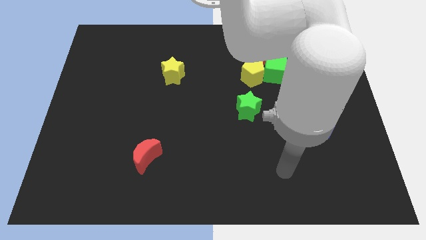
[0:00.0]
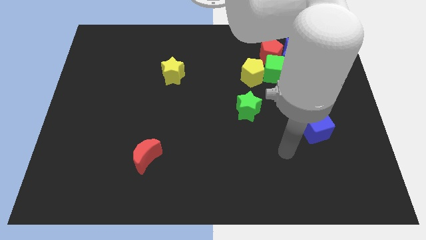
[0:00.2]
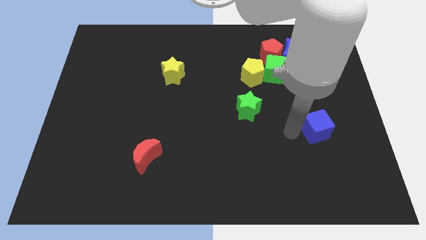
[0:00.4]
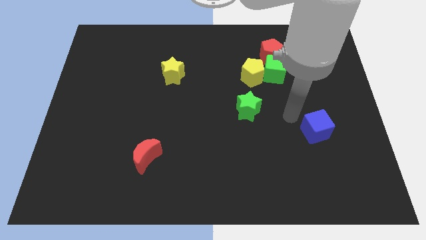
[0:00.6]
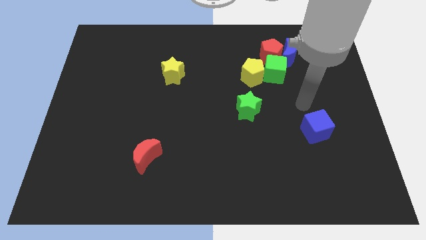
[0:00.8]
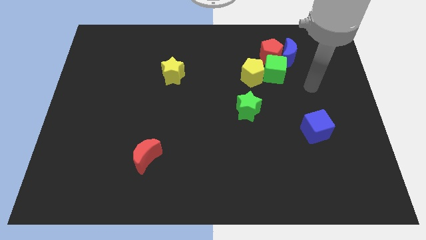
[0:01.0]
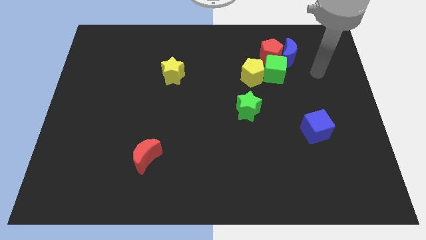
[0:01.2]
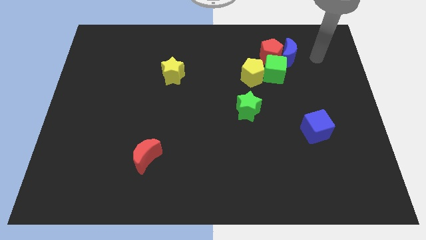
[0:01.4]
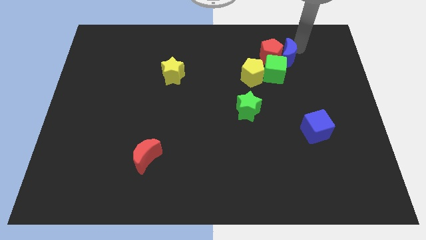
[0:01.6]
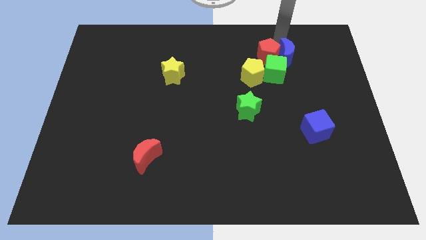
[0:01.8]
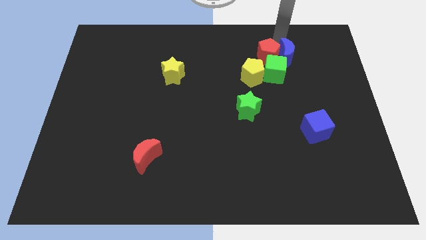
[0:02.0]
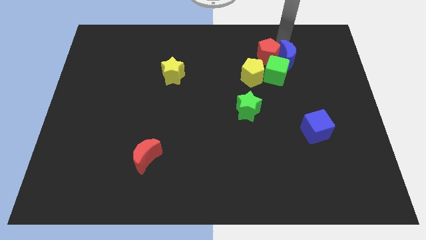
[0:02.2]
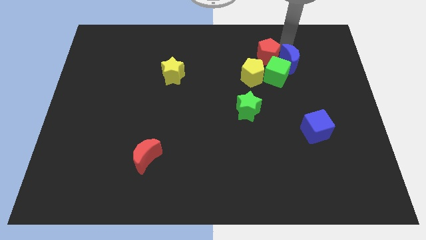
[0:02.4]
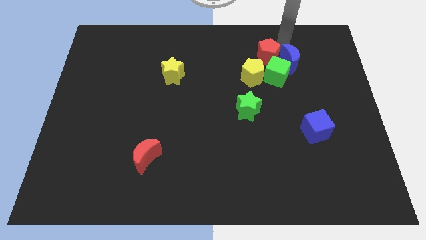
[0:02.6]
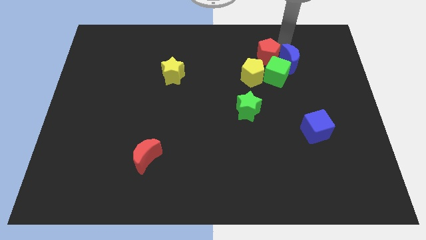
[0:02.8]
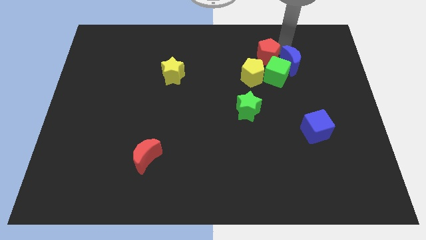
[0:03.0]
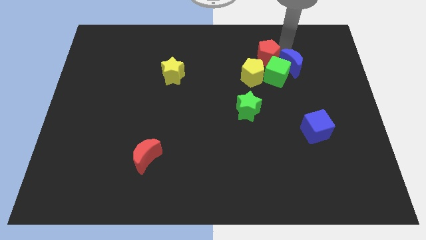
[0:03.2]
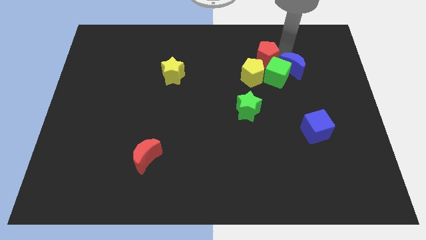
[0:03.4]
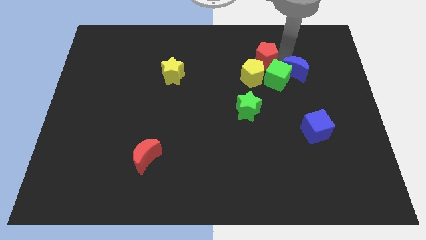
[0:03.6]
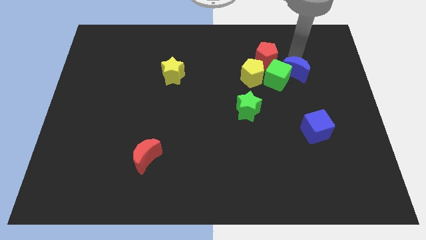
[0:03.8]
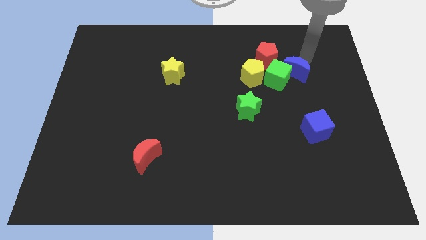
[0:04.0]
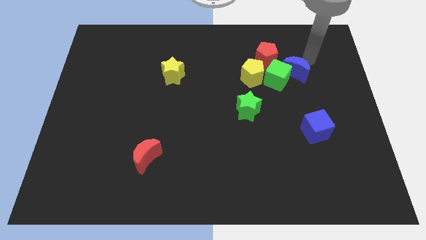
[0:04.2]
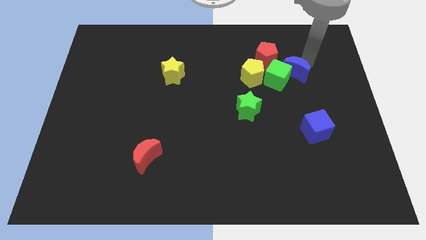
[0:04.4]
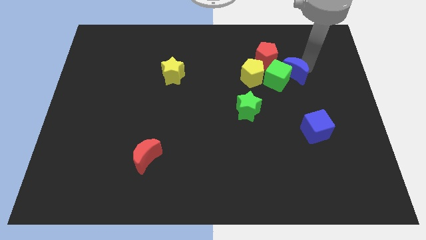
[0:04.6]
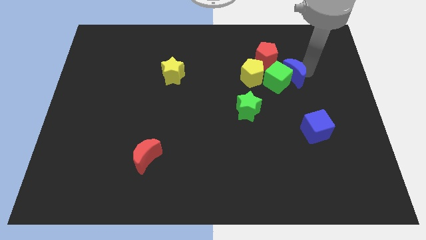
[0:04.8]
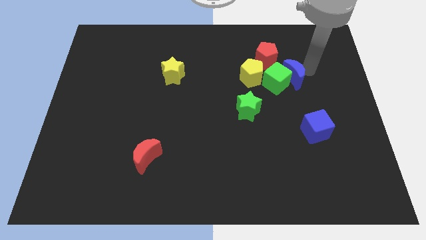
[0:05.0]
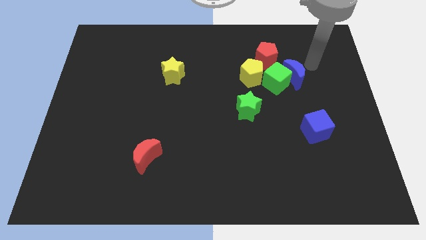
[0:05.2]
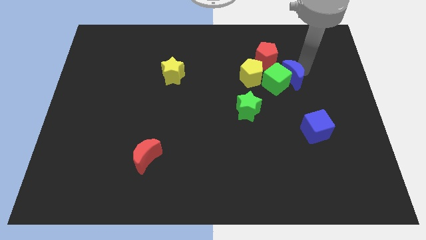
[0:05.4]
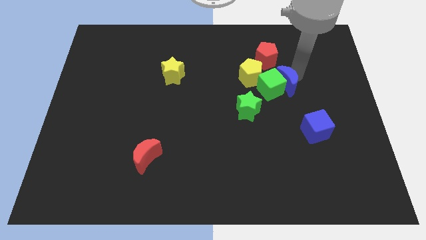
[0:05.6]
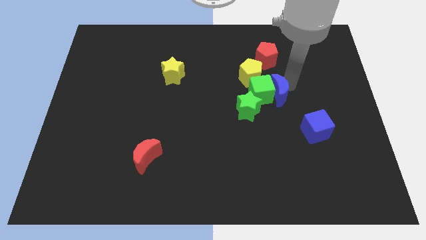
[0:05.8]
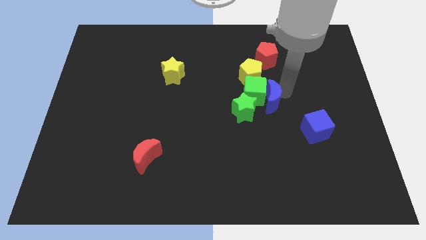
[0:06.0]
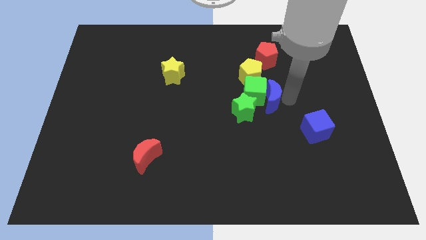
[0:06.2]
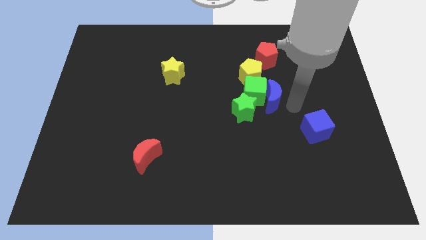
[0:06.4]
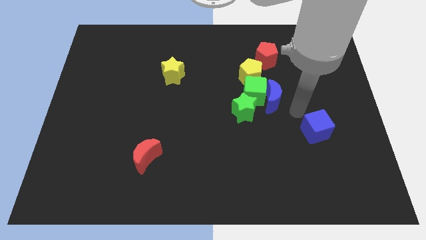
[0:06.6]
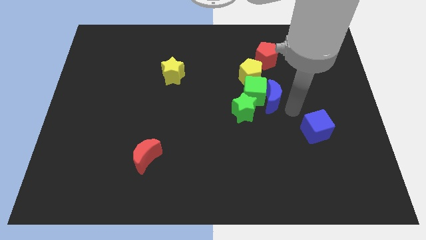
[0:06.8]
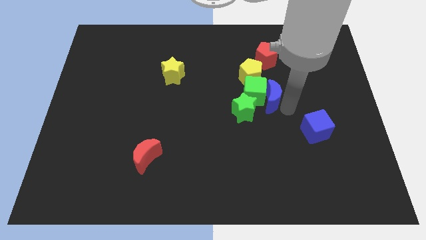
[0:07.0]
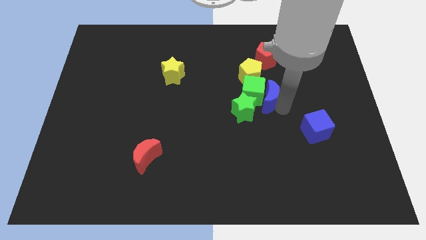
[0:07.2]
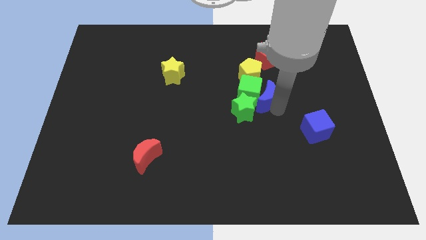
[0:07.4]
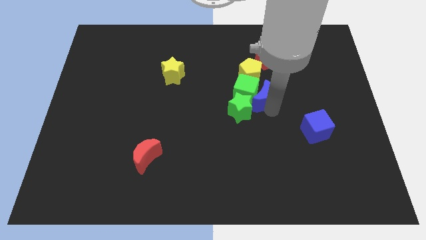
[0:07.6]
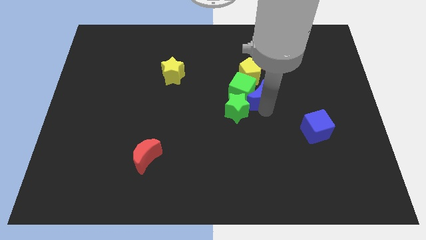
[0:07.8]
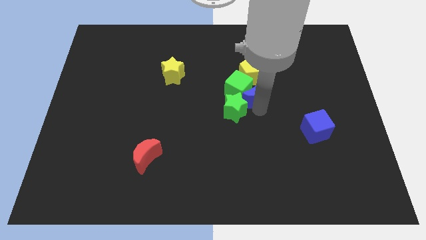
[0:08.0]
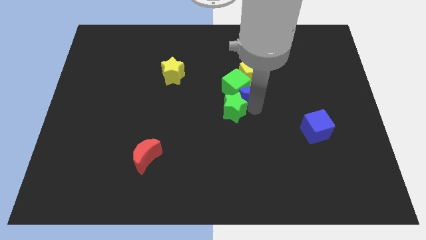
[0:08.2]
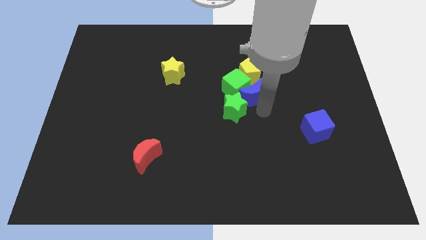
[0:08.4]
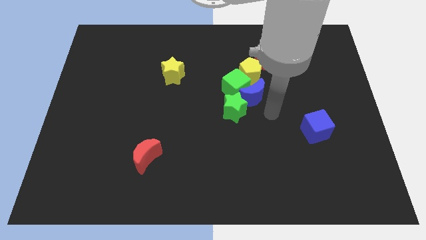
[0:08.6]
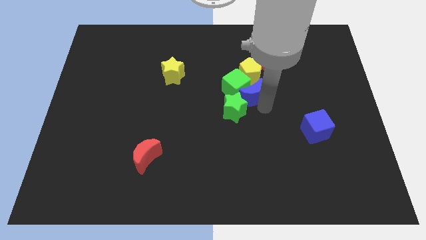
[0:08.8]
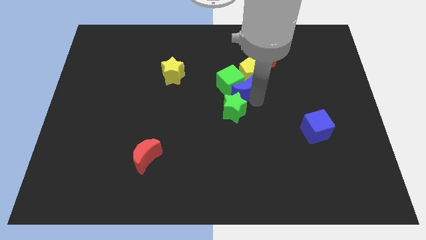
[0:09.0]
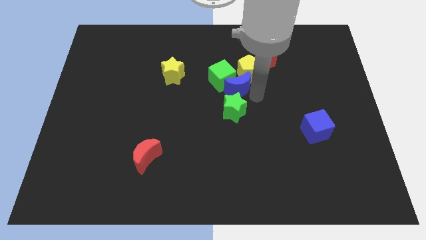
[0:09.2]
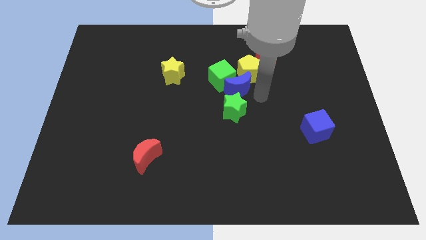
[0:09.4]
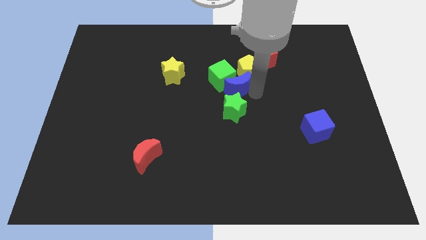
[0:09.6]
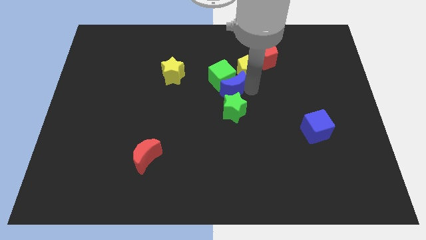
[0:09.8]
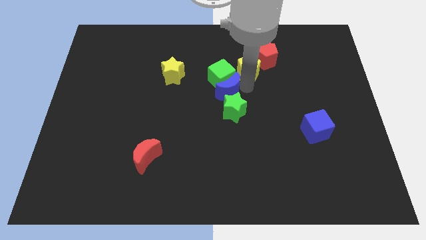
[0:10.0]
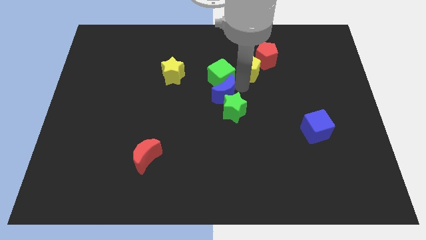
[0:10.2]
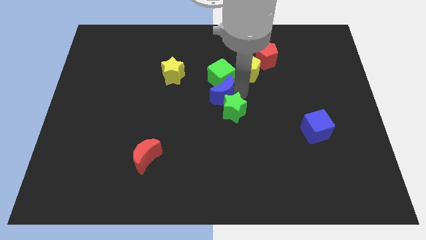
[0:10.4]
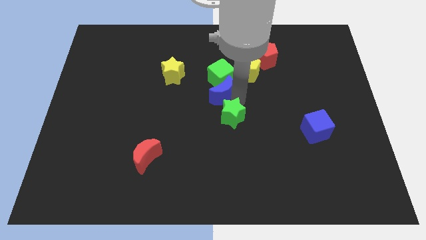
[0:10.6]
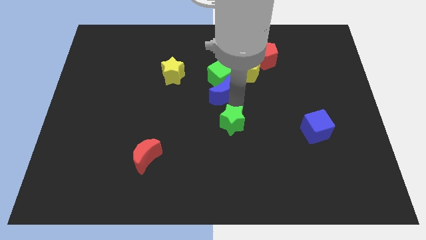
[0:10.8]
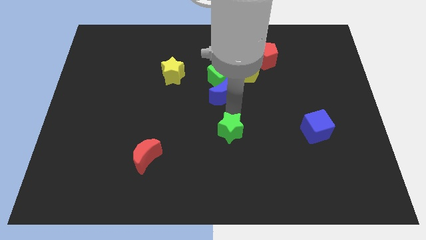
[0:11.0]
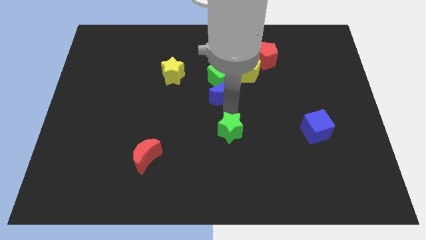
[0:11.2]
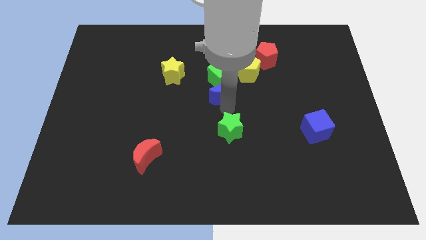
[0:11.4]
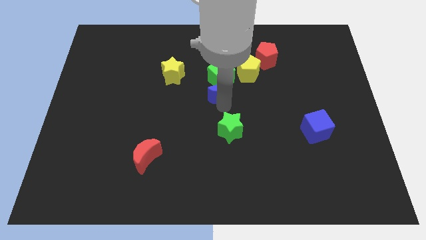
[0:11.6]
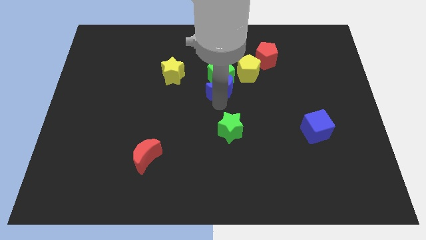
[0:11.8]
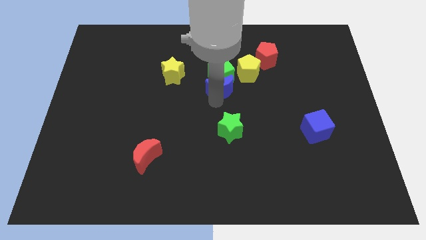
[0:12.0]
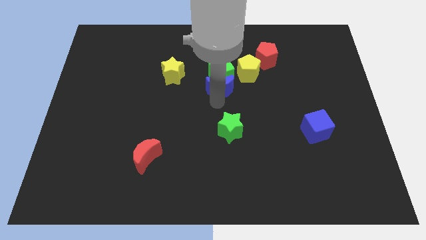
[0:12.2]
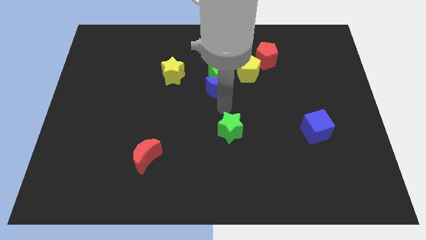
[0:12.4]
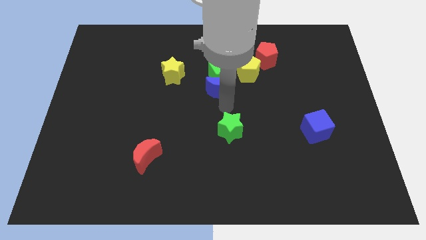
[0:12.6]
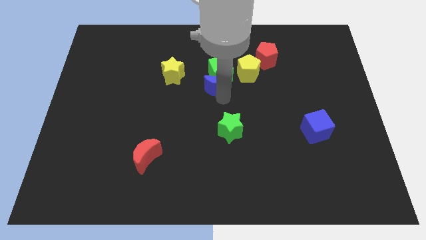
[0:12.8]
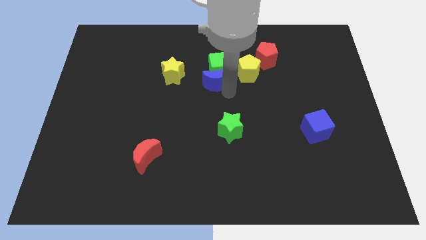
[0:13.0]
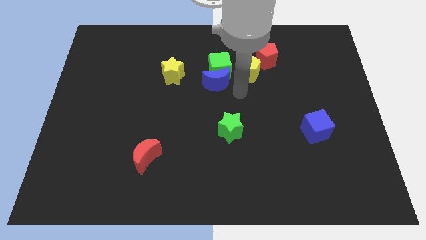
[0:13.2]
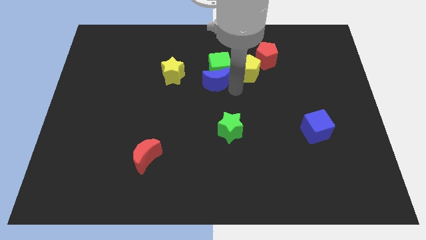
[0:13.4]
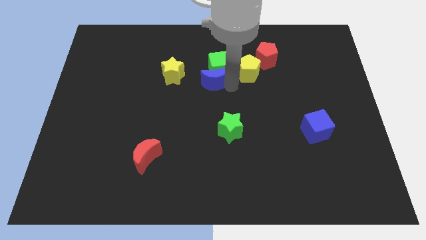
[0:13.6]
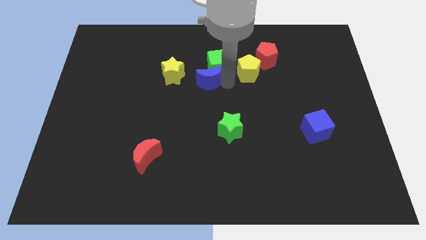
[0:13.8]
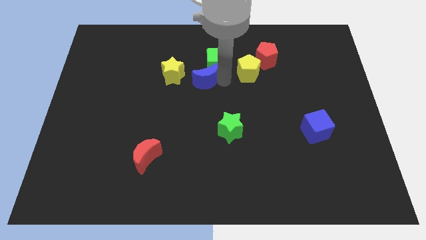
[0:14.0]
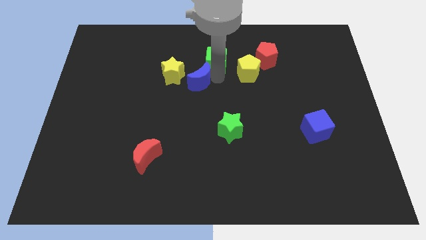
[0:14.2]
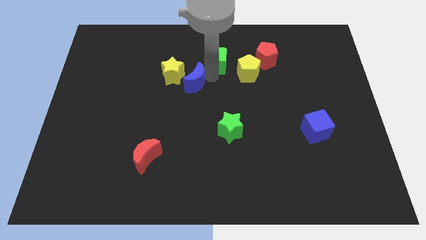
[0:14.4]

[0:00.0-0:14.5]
put the blue moon next to the yellow star

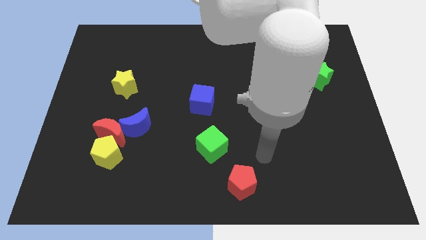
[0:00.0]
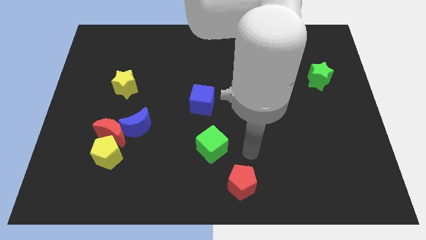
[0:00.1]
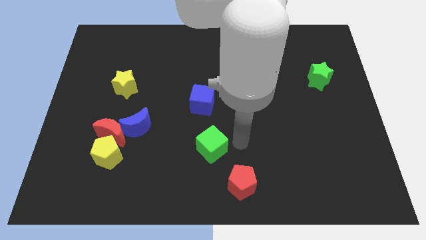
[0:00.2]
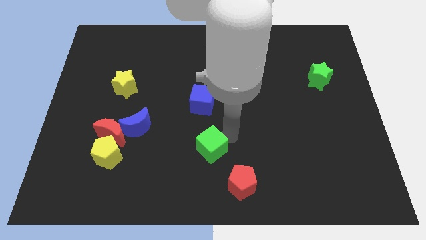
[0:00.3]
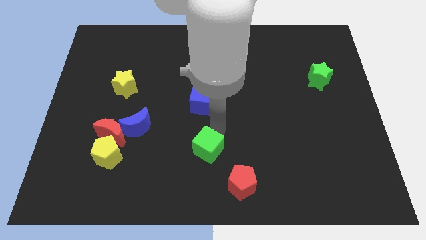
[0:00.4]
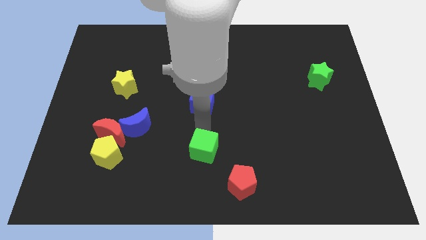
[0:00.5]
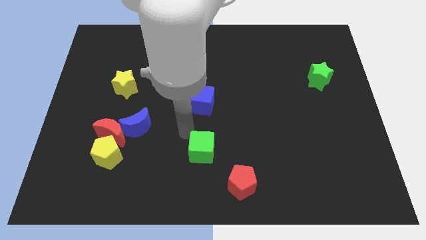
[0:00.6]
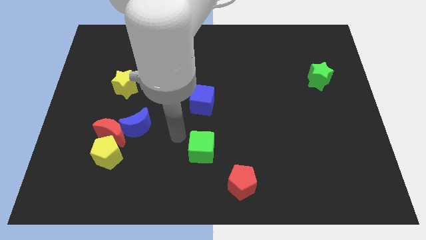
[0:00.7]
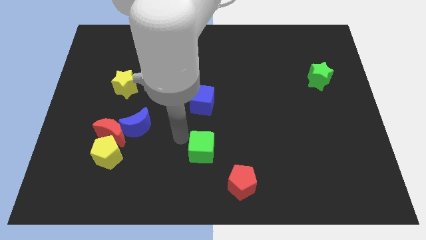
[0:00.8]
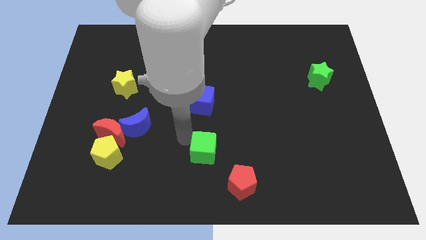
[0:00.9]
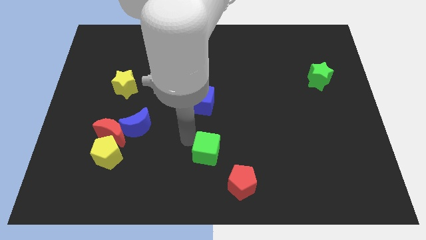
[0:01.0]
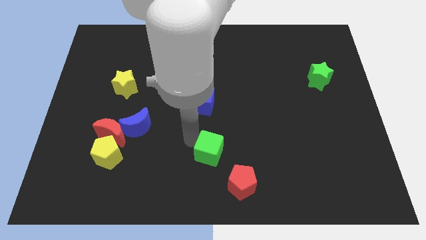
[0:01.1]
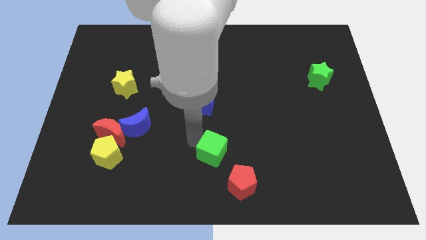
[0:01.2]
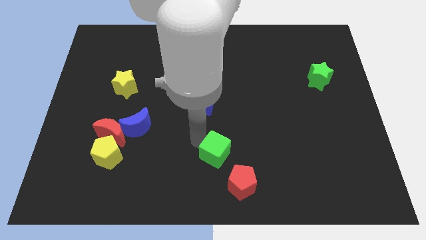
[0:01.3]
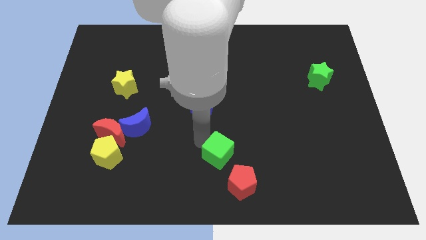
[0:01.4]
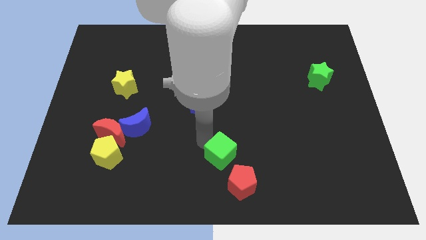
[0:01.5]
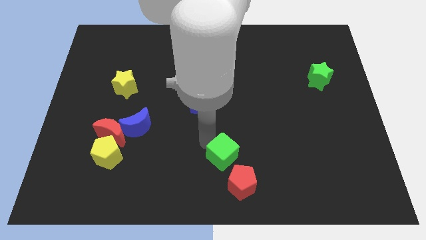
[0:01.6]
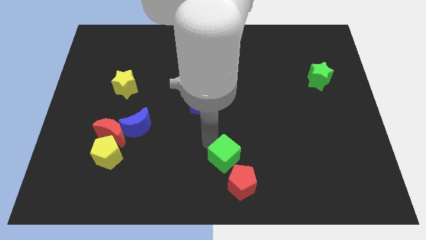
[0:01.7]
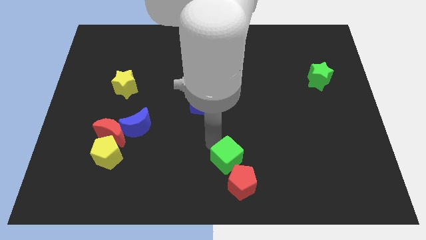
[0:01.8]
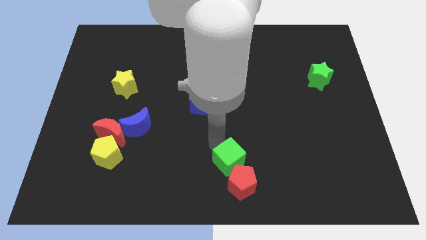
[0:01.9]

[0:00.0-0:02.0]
put the green cube towards the red pentagon
